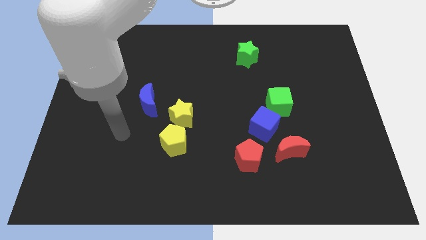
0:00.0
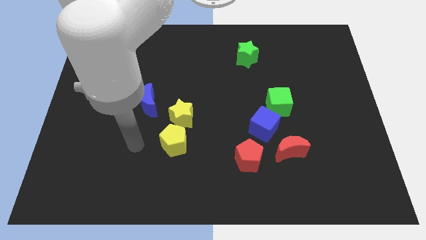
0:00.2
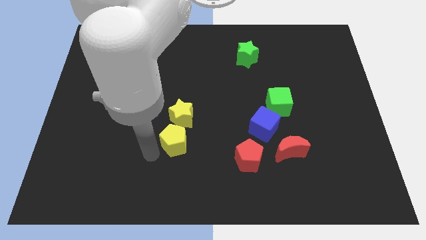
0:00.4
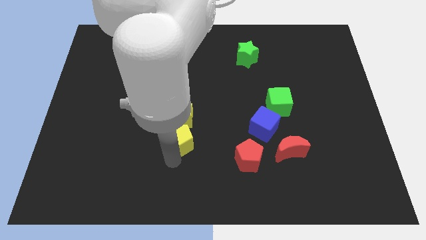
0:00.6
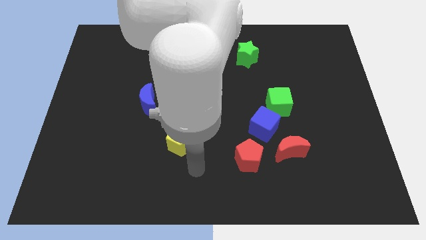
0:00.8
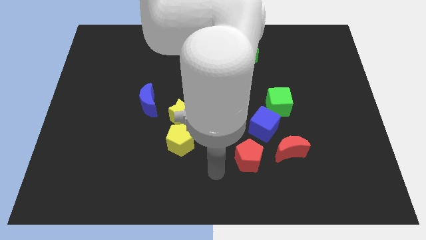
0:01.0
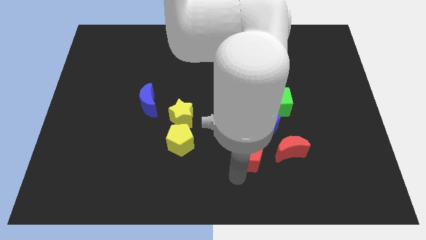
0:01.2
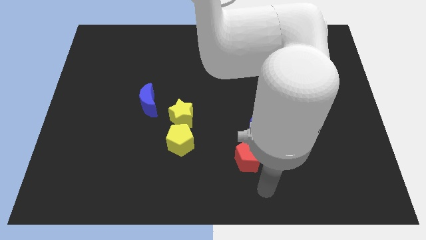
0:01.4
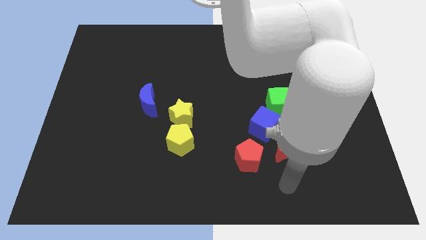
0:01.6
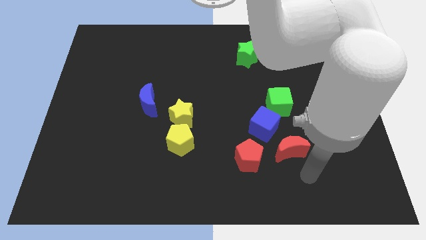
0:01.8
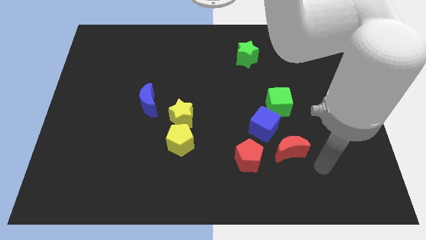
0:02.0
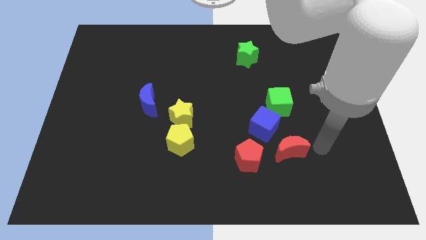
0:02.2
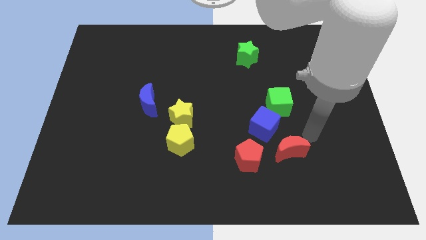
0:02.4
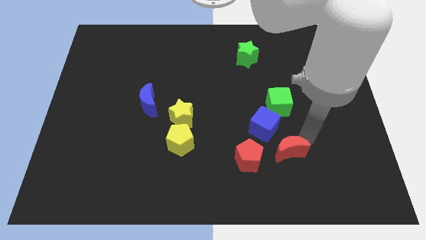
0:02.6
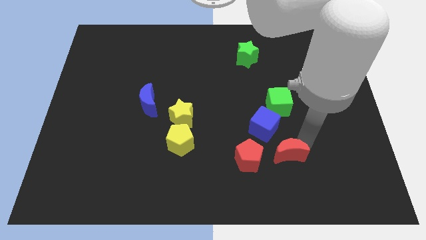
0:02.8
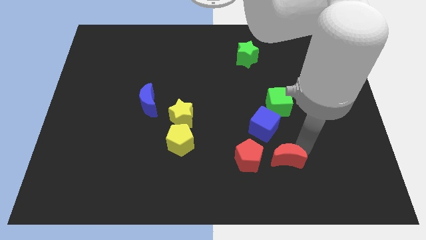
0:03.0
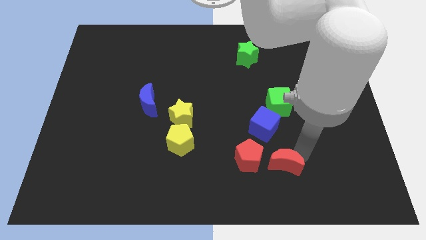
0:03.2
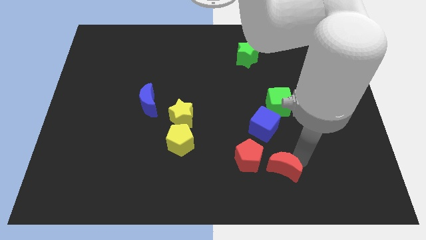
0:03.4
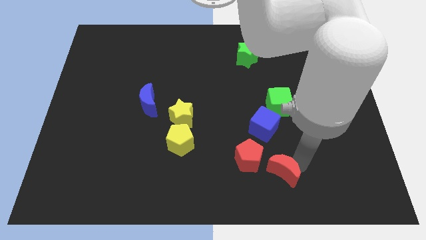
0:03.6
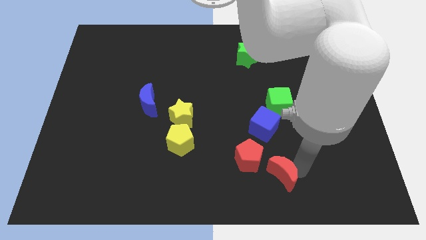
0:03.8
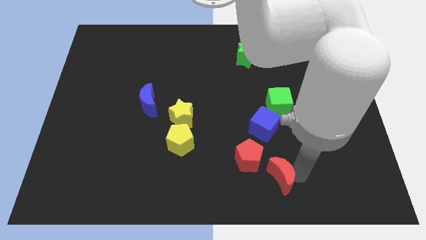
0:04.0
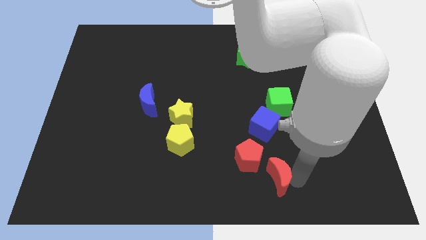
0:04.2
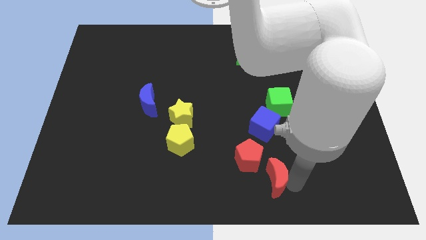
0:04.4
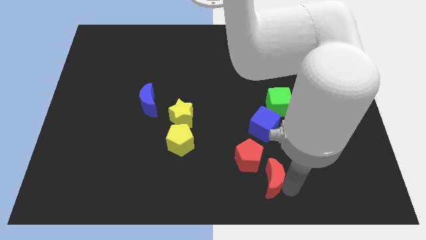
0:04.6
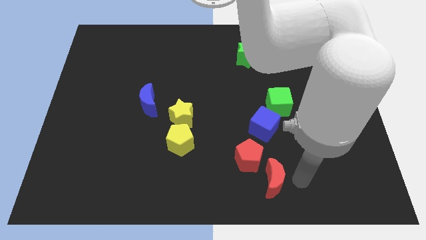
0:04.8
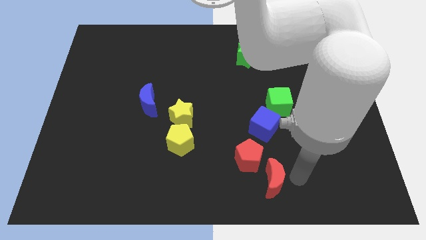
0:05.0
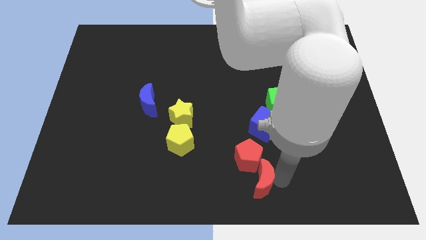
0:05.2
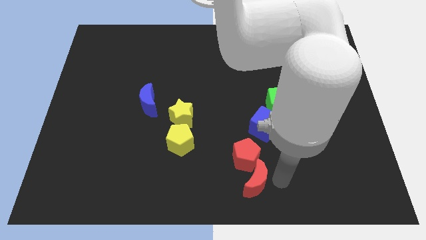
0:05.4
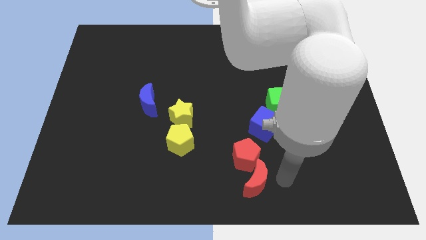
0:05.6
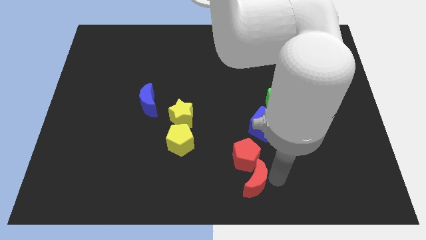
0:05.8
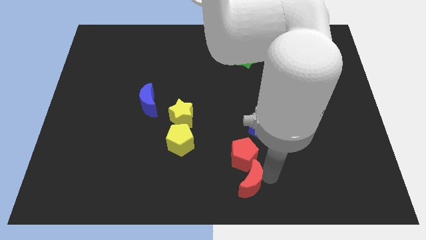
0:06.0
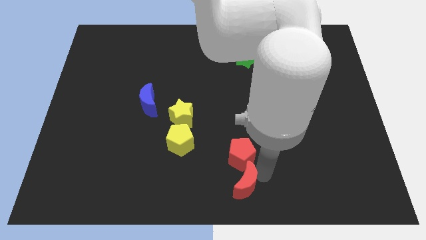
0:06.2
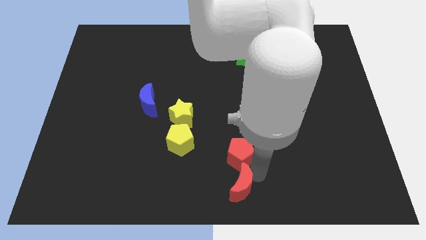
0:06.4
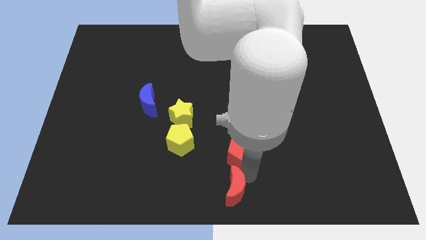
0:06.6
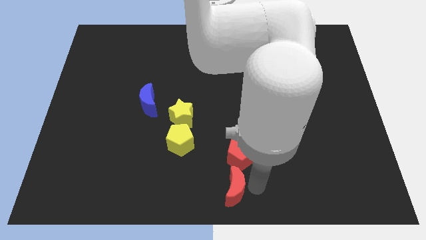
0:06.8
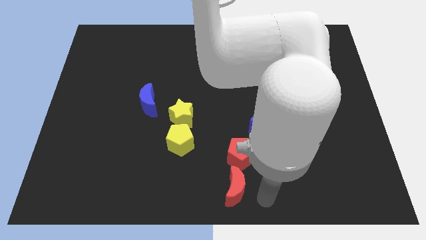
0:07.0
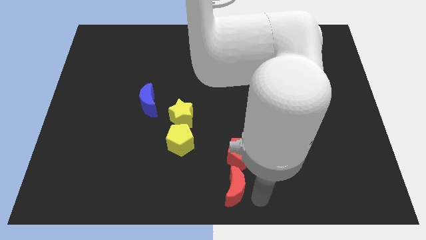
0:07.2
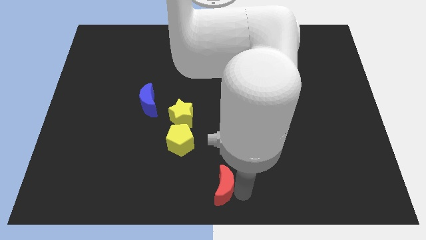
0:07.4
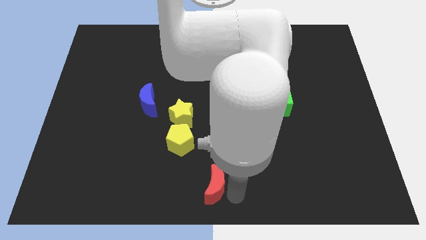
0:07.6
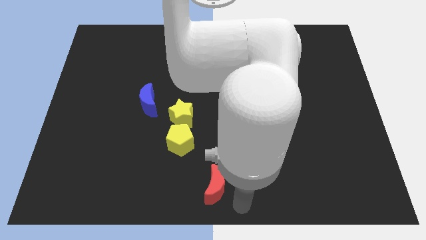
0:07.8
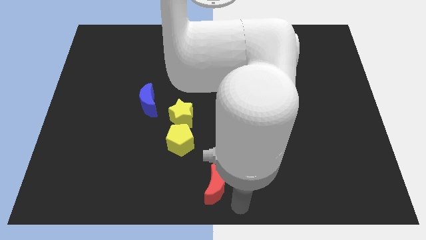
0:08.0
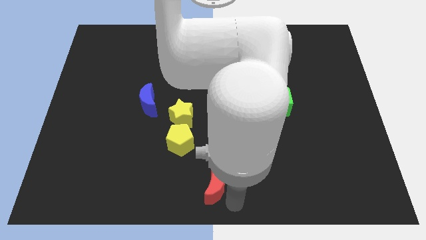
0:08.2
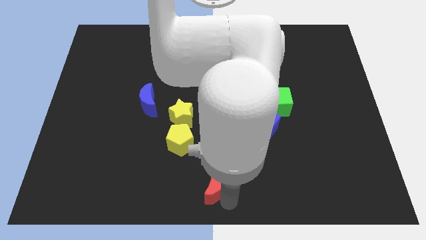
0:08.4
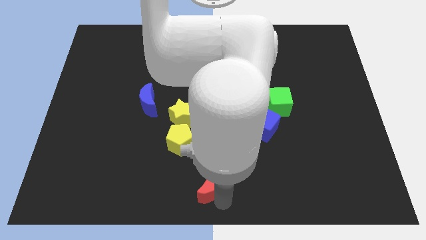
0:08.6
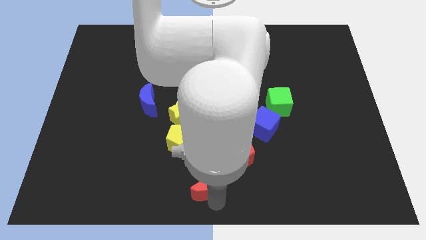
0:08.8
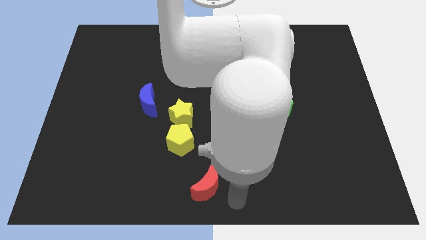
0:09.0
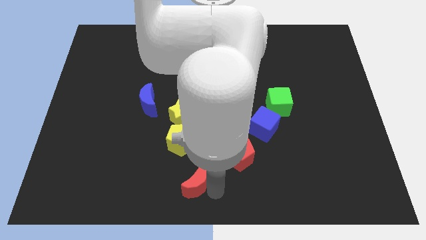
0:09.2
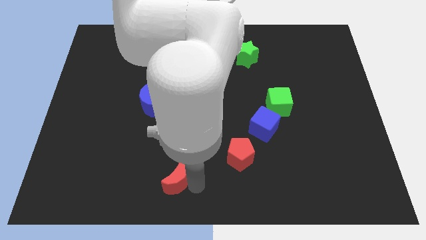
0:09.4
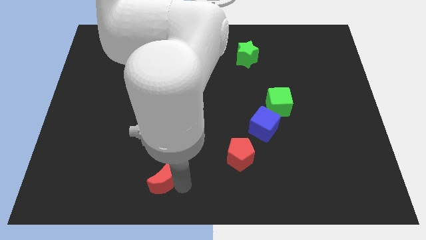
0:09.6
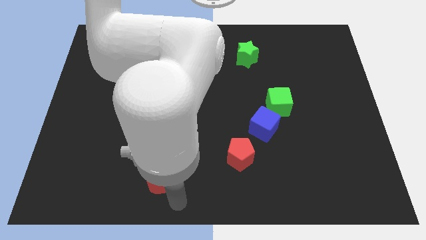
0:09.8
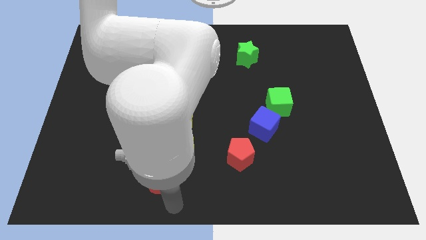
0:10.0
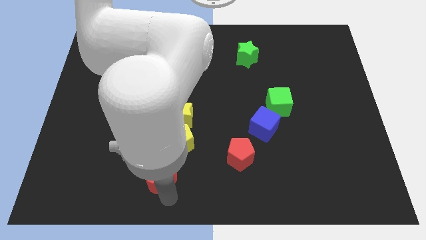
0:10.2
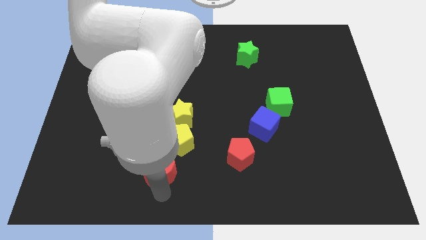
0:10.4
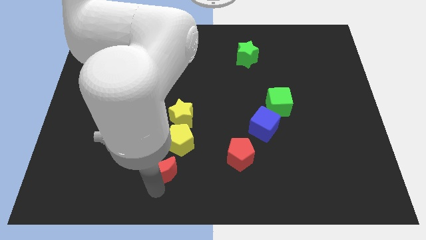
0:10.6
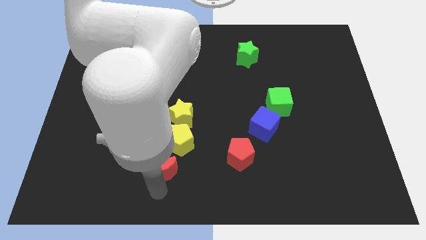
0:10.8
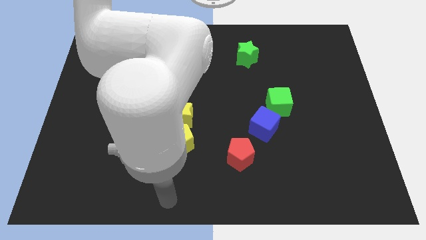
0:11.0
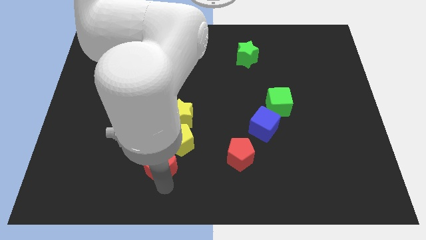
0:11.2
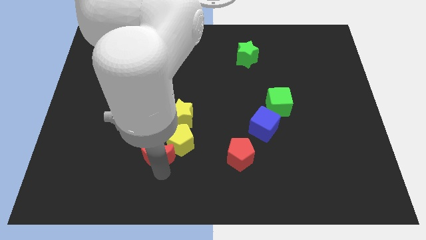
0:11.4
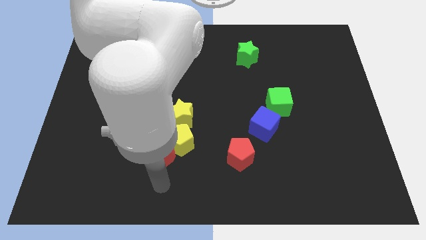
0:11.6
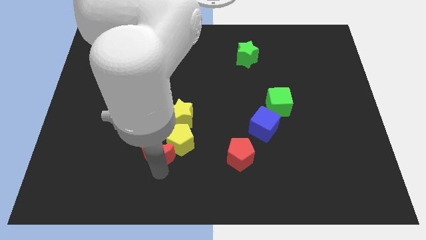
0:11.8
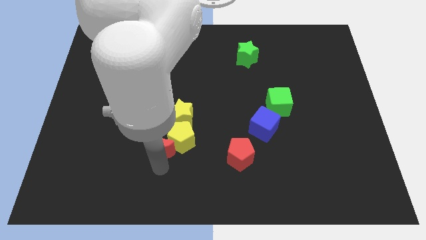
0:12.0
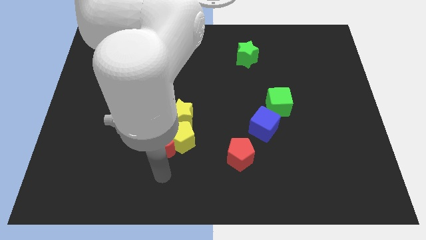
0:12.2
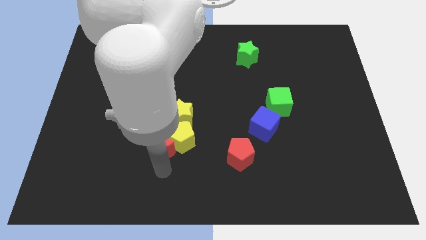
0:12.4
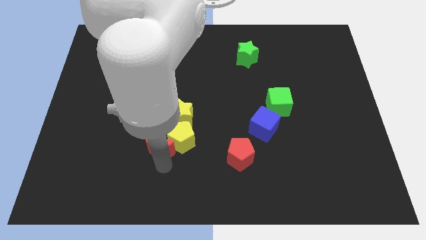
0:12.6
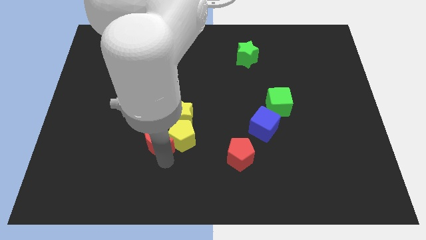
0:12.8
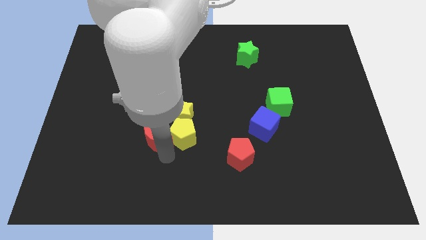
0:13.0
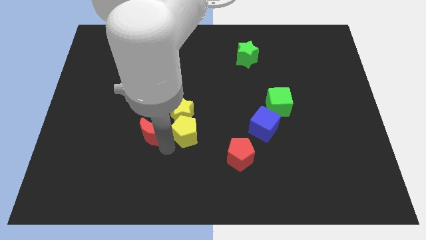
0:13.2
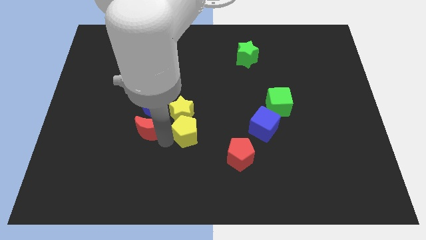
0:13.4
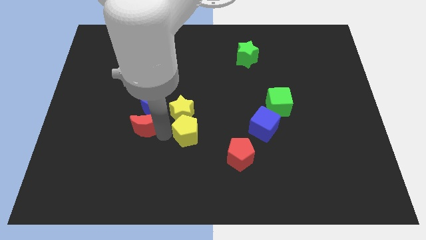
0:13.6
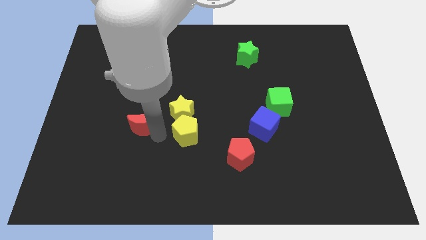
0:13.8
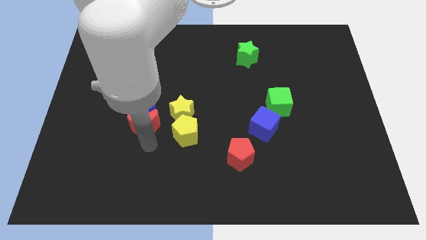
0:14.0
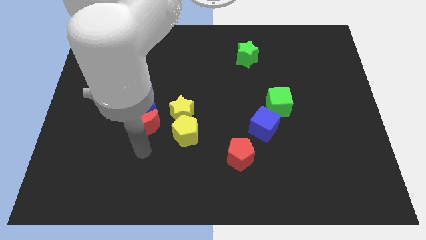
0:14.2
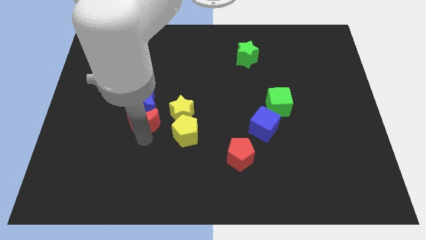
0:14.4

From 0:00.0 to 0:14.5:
put the red moon close to the blue moon

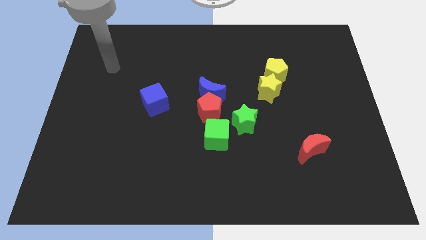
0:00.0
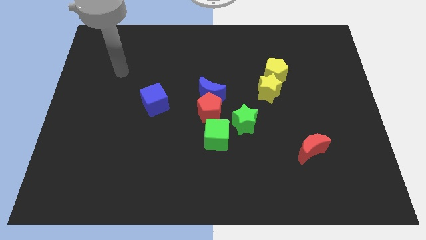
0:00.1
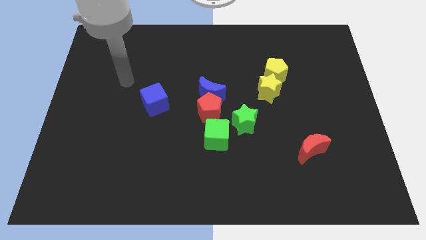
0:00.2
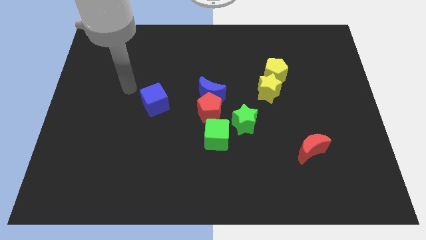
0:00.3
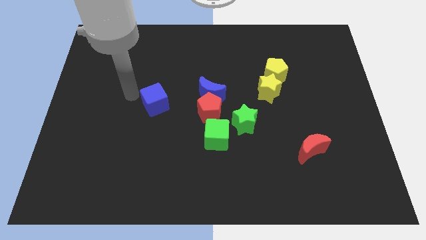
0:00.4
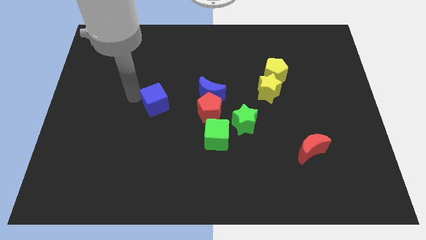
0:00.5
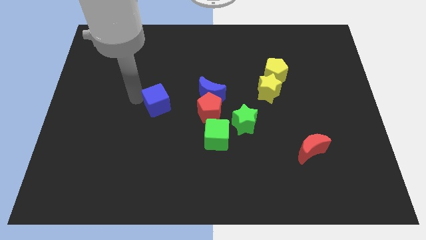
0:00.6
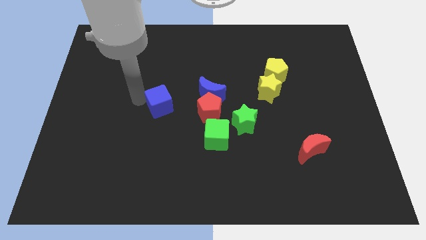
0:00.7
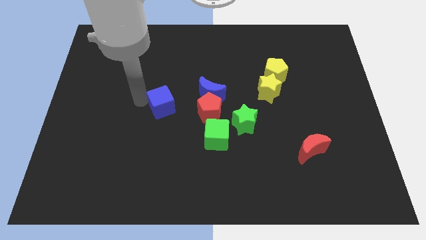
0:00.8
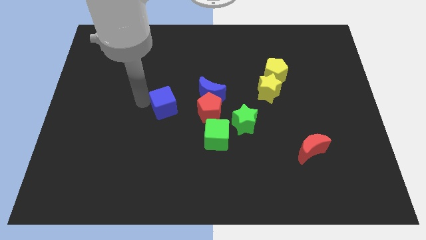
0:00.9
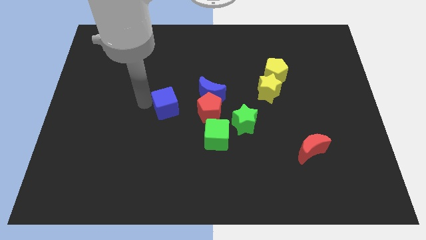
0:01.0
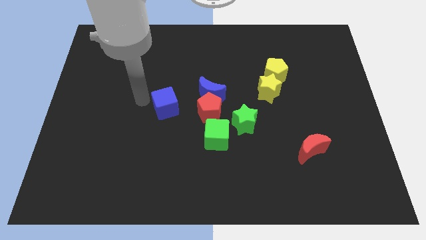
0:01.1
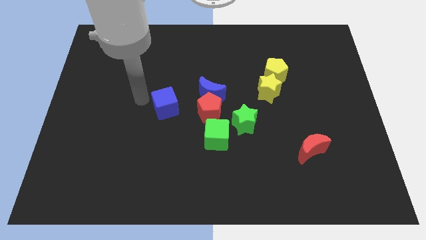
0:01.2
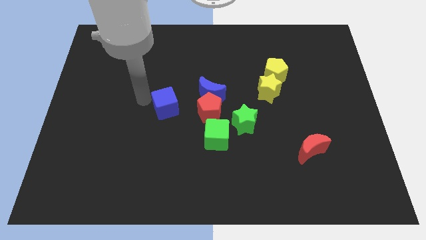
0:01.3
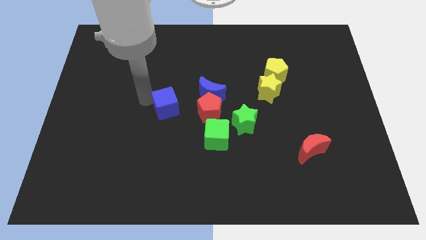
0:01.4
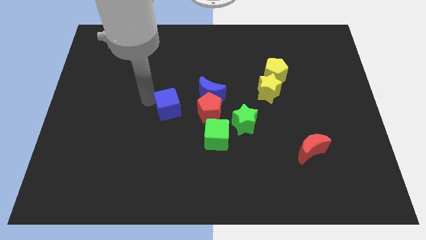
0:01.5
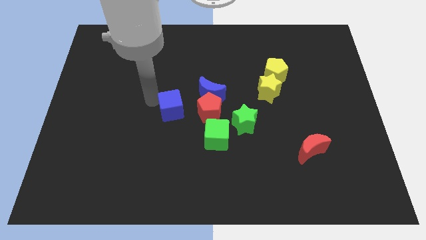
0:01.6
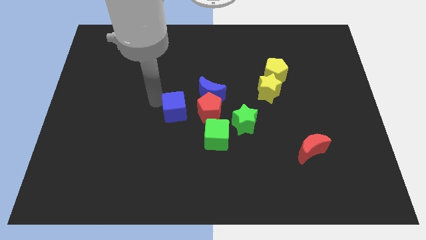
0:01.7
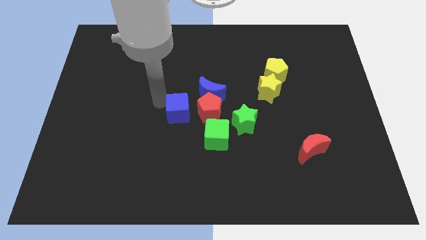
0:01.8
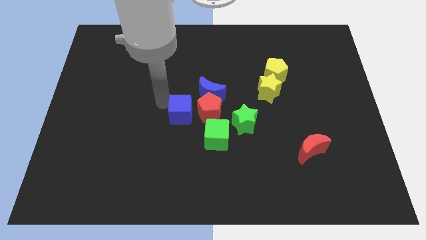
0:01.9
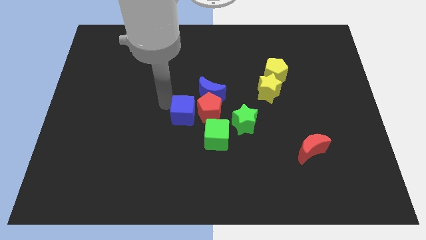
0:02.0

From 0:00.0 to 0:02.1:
move the blue cube next to the red pentagon
